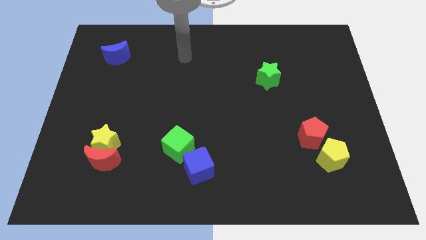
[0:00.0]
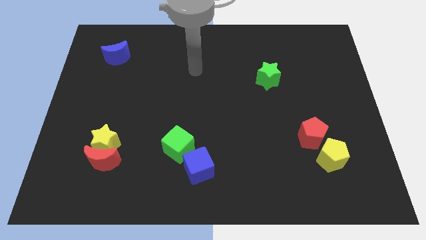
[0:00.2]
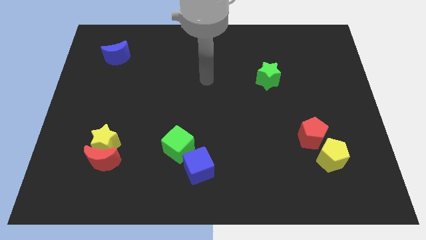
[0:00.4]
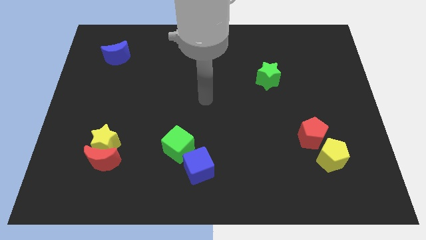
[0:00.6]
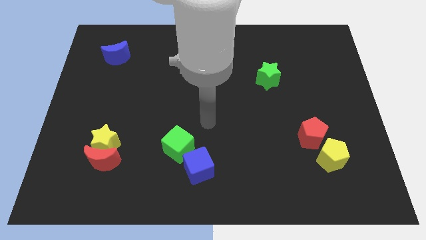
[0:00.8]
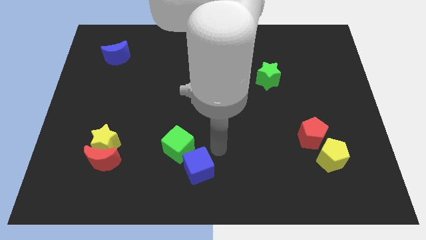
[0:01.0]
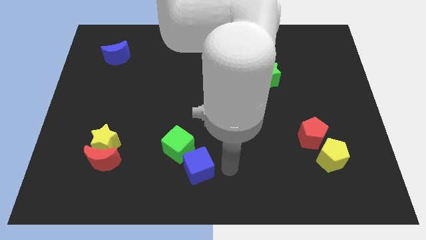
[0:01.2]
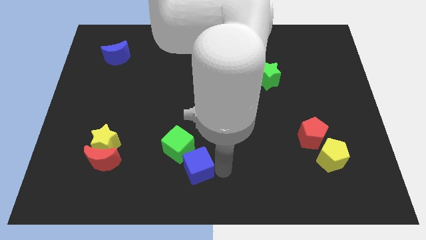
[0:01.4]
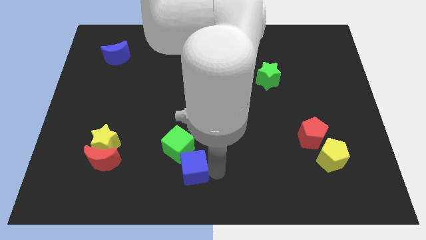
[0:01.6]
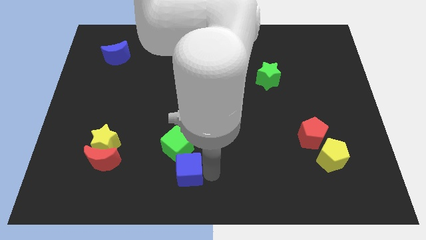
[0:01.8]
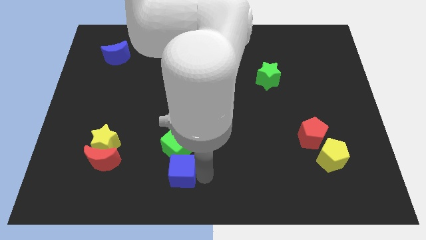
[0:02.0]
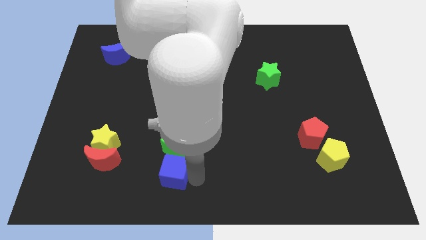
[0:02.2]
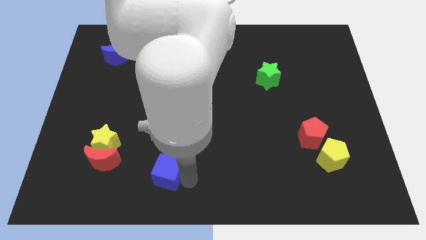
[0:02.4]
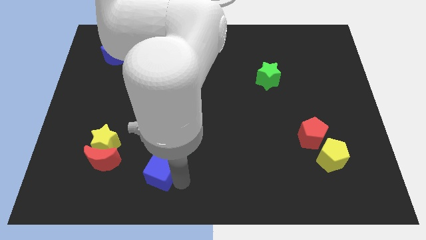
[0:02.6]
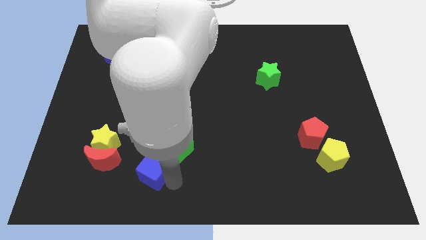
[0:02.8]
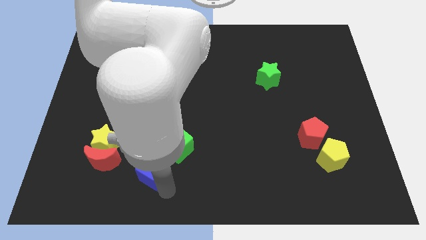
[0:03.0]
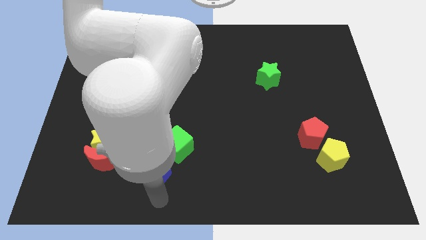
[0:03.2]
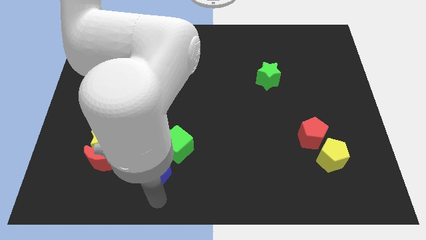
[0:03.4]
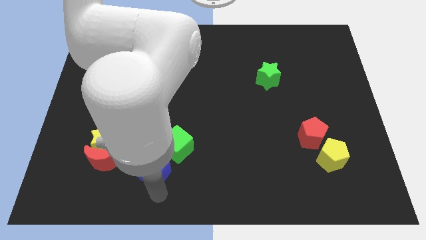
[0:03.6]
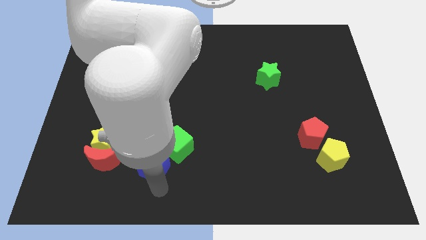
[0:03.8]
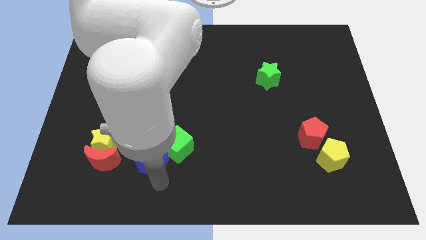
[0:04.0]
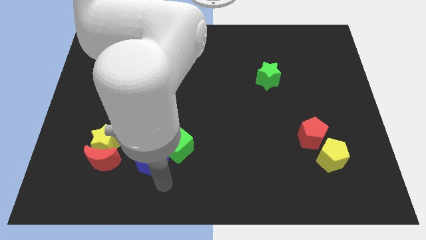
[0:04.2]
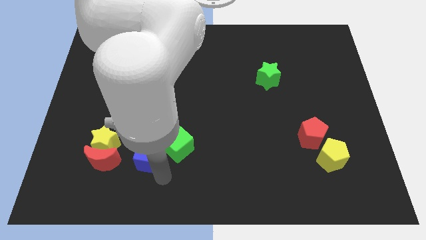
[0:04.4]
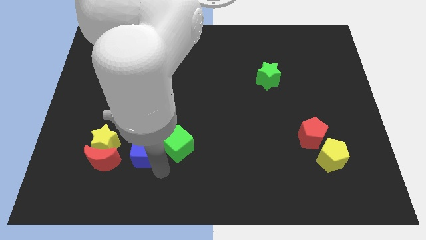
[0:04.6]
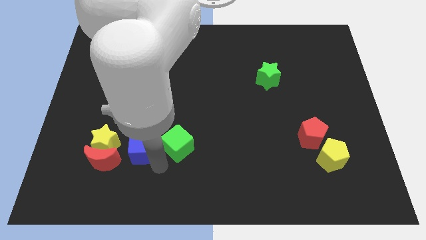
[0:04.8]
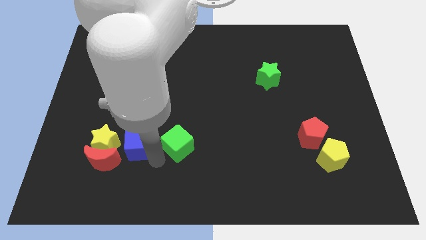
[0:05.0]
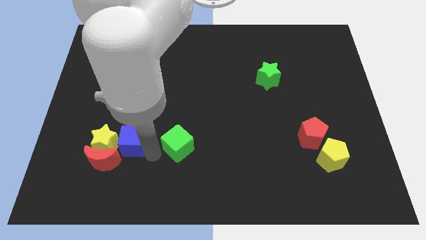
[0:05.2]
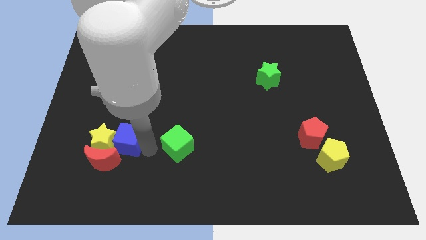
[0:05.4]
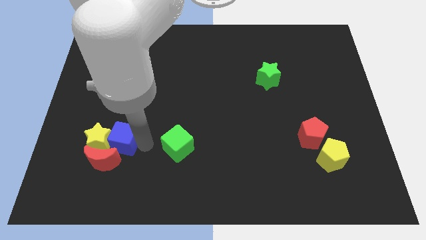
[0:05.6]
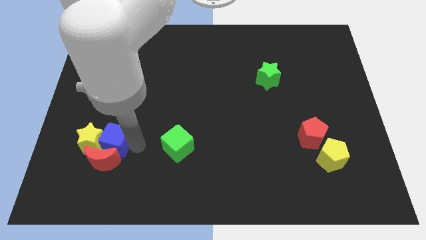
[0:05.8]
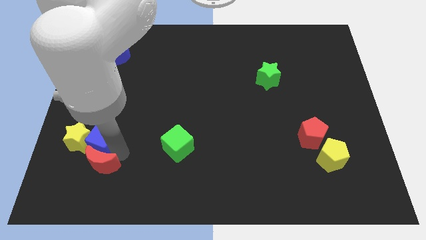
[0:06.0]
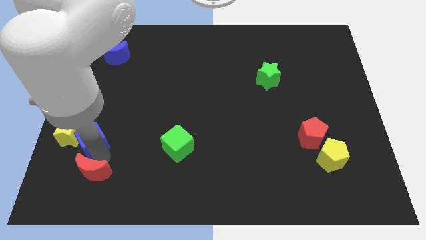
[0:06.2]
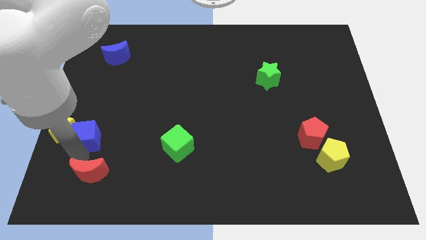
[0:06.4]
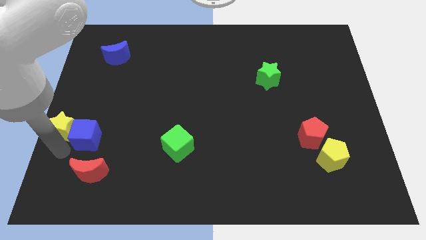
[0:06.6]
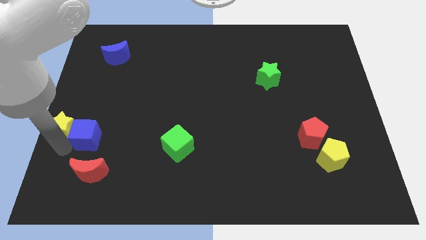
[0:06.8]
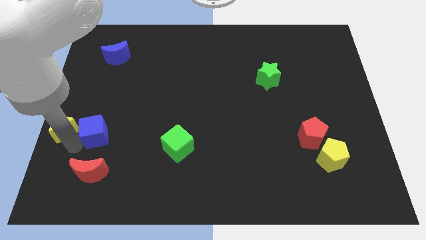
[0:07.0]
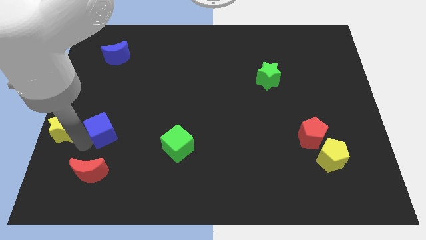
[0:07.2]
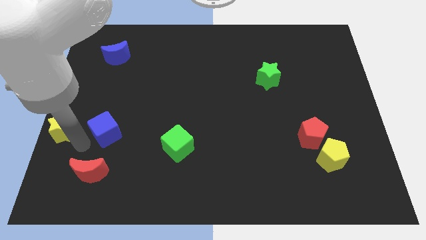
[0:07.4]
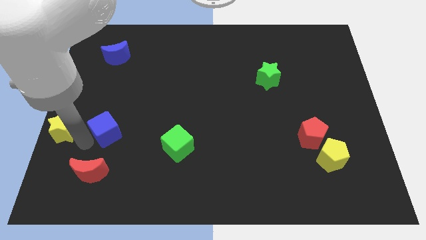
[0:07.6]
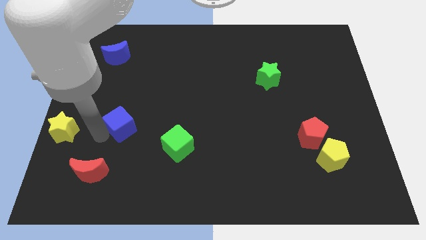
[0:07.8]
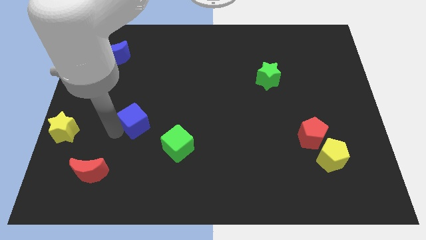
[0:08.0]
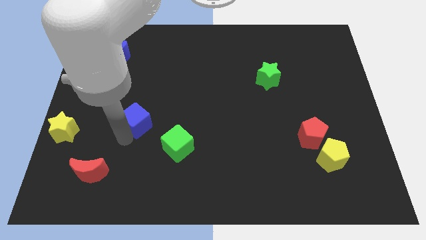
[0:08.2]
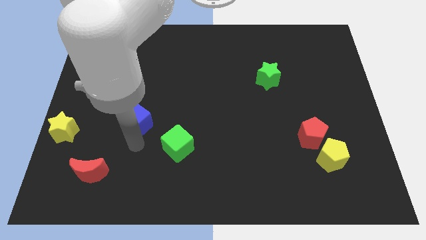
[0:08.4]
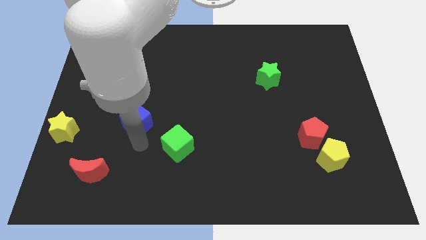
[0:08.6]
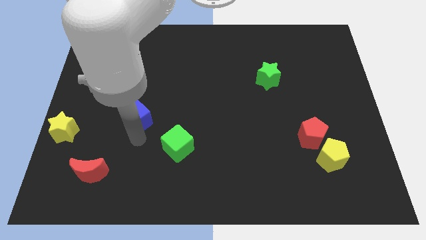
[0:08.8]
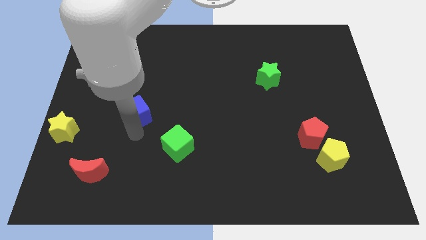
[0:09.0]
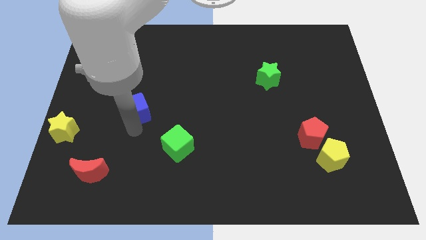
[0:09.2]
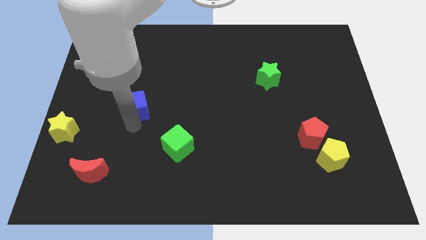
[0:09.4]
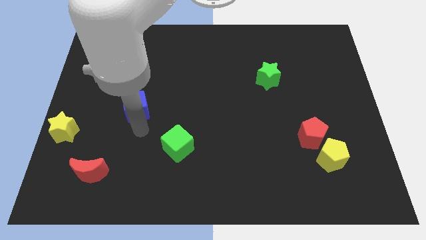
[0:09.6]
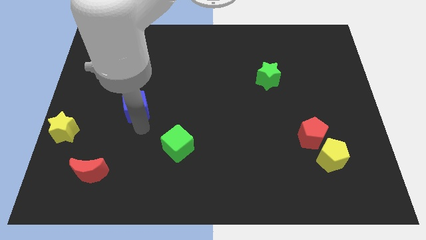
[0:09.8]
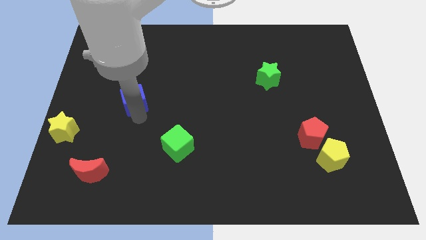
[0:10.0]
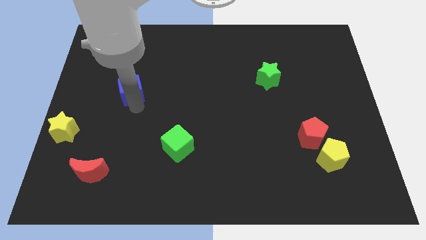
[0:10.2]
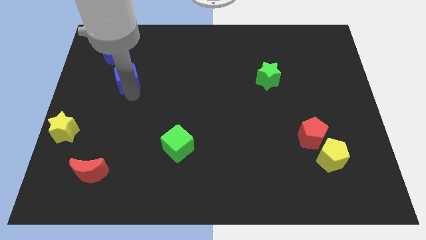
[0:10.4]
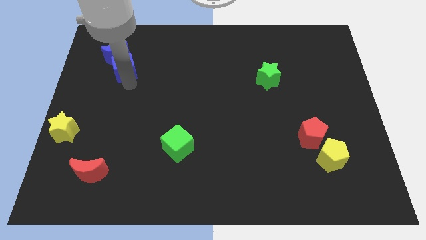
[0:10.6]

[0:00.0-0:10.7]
put the blue cube next to the blue moon

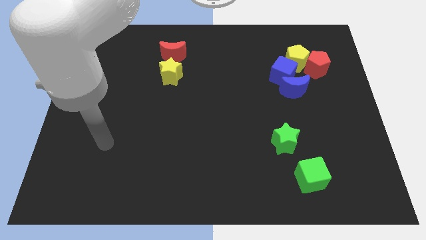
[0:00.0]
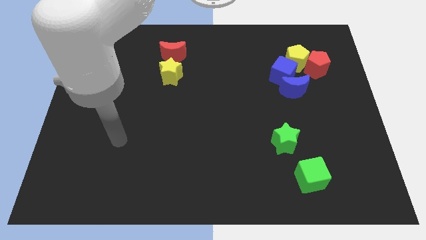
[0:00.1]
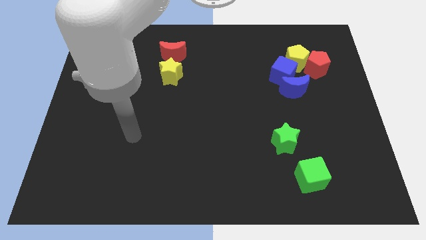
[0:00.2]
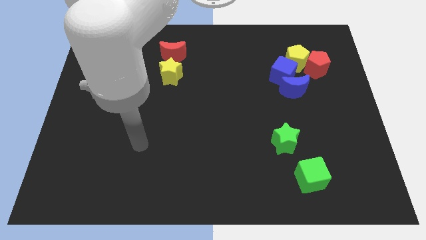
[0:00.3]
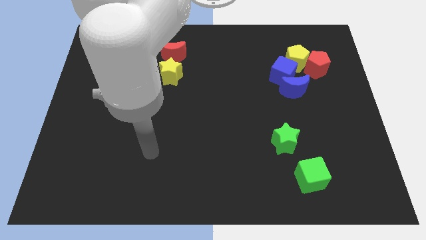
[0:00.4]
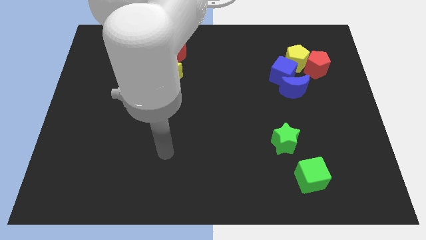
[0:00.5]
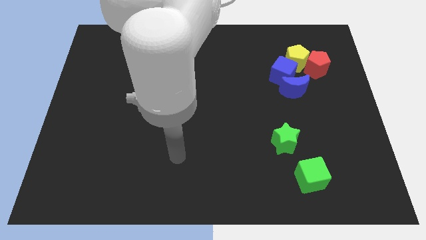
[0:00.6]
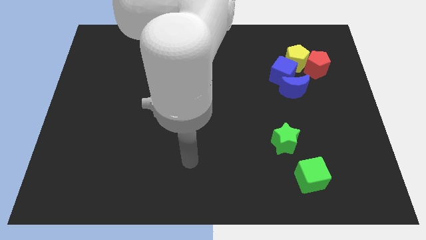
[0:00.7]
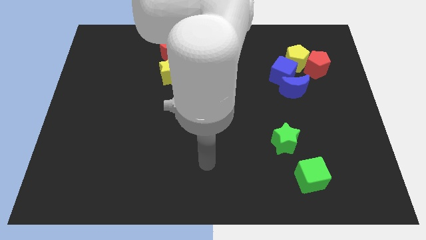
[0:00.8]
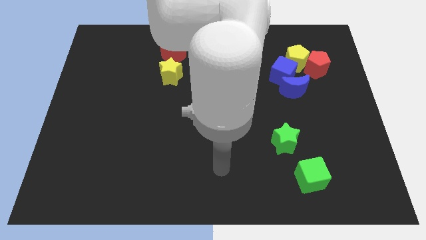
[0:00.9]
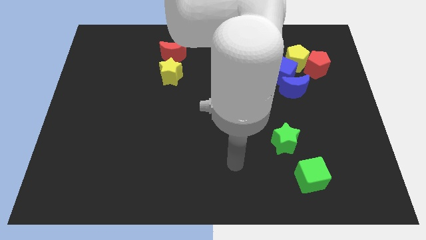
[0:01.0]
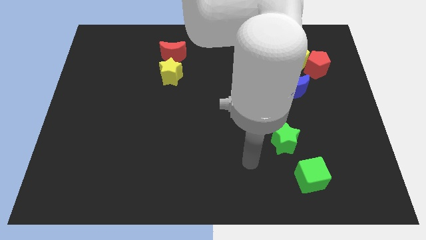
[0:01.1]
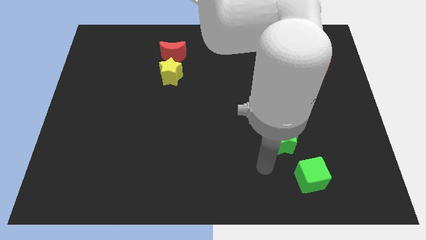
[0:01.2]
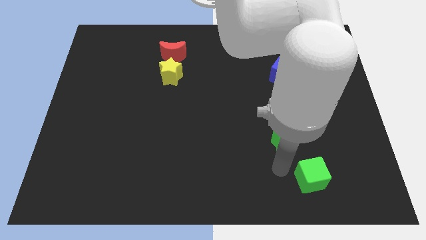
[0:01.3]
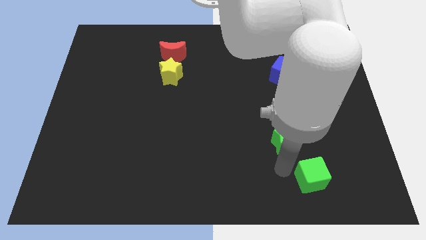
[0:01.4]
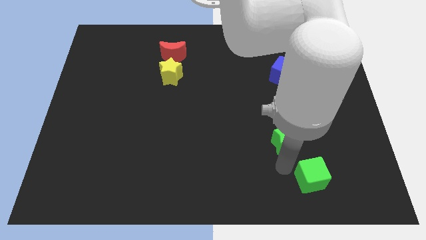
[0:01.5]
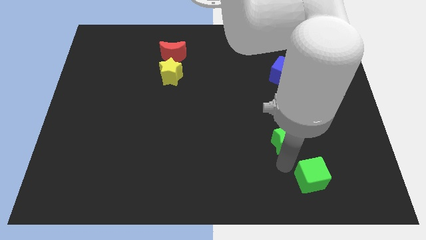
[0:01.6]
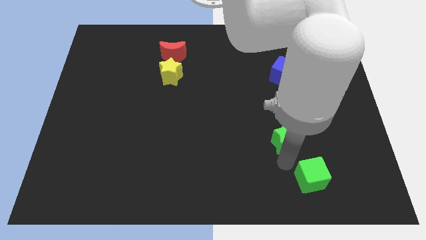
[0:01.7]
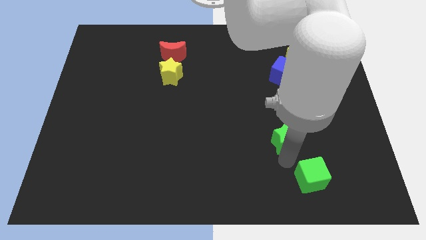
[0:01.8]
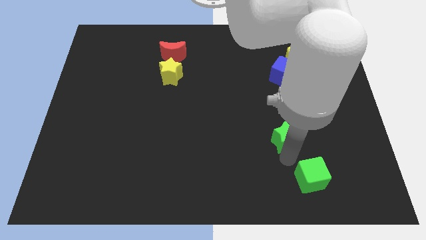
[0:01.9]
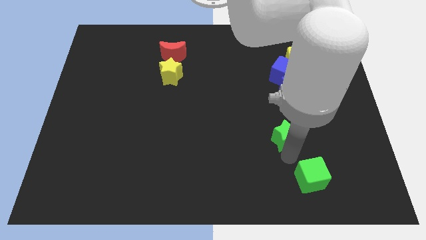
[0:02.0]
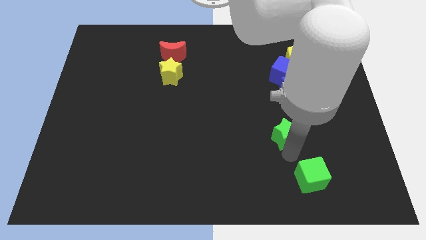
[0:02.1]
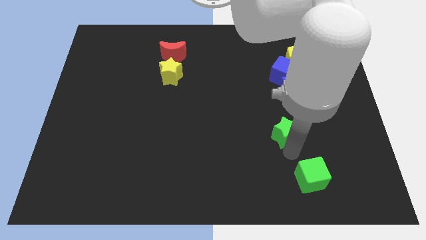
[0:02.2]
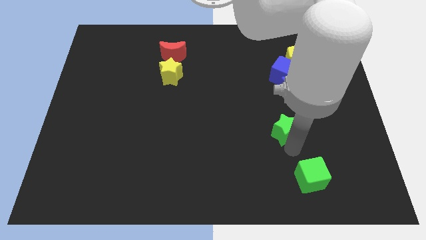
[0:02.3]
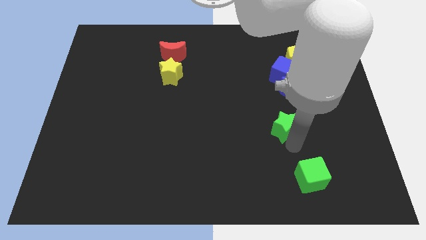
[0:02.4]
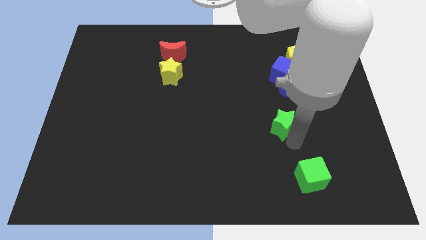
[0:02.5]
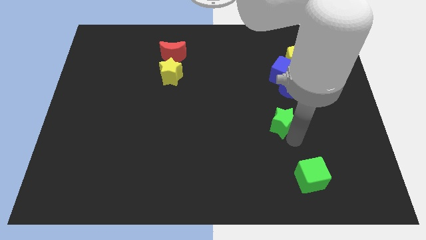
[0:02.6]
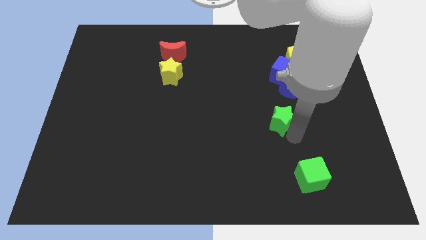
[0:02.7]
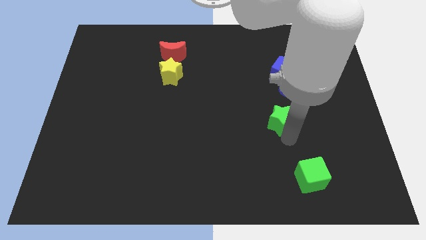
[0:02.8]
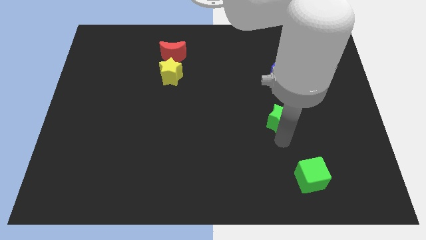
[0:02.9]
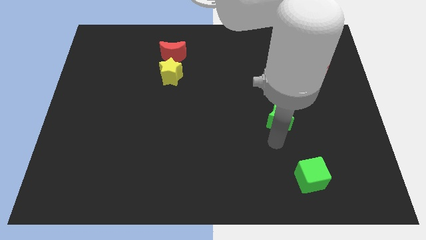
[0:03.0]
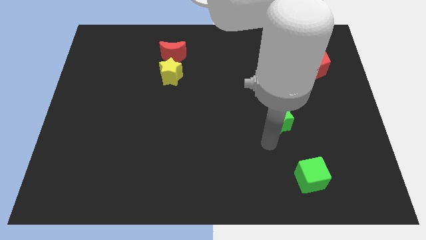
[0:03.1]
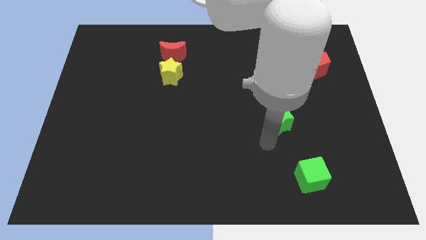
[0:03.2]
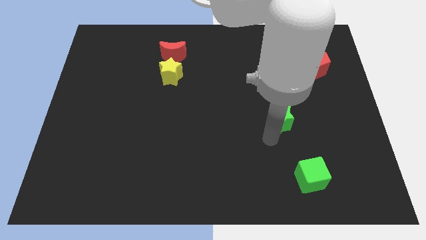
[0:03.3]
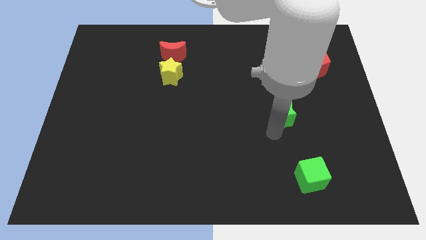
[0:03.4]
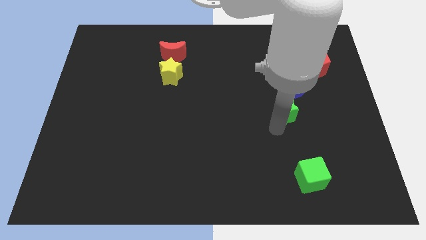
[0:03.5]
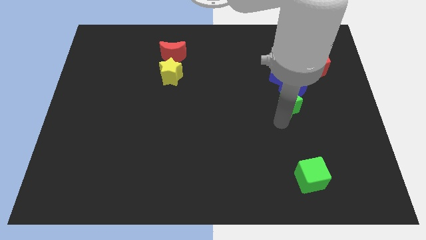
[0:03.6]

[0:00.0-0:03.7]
push the green star to the blue moon
